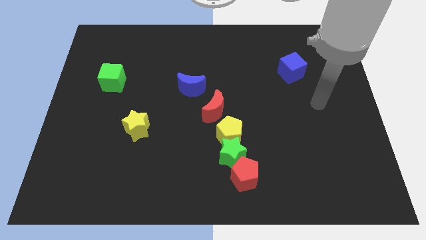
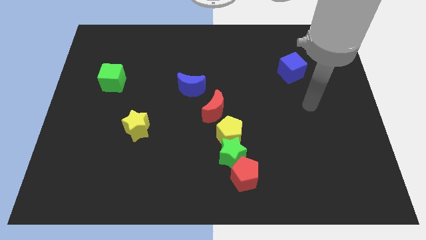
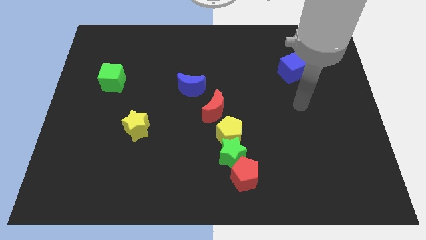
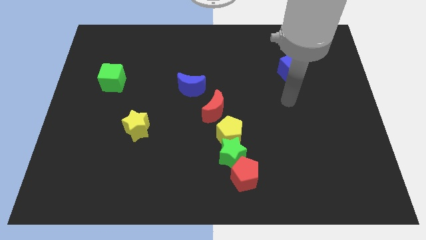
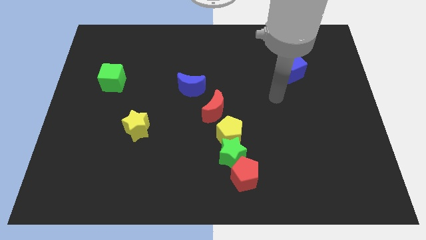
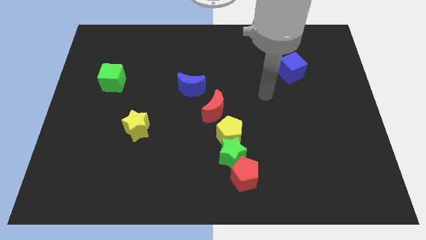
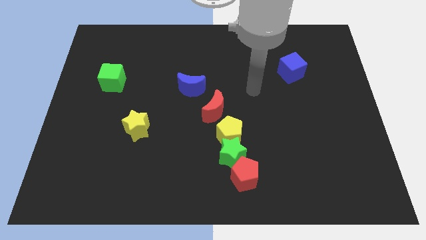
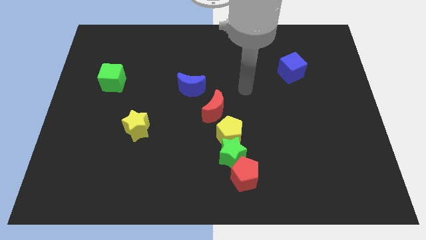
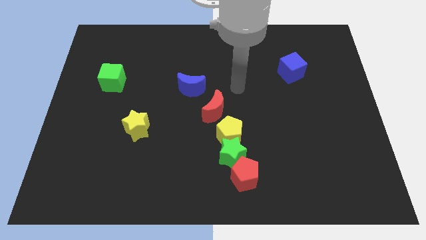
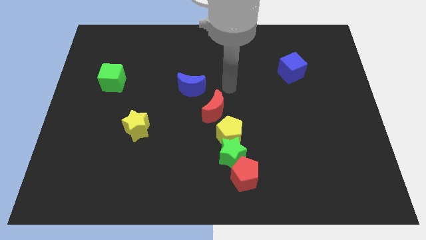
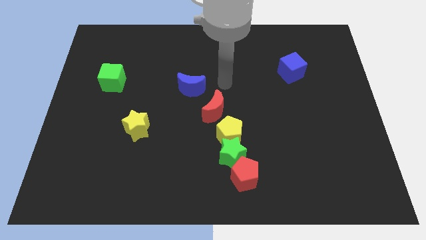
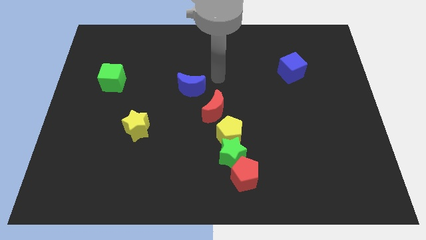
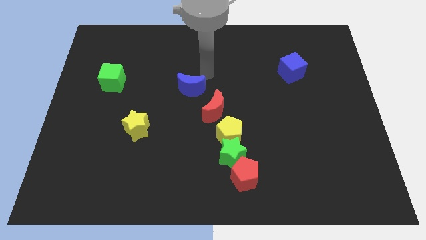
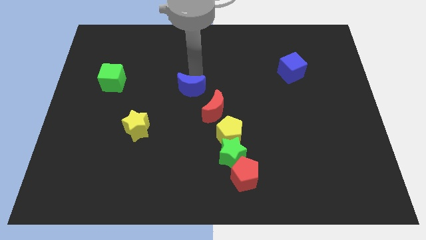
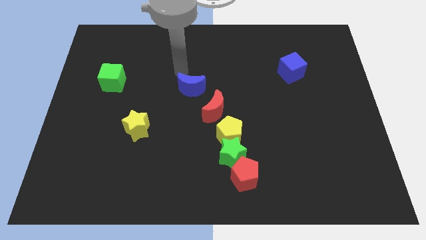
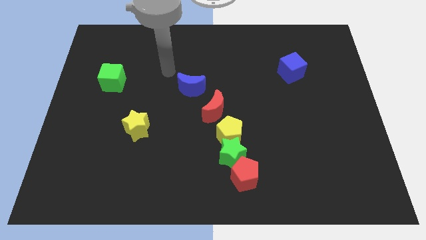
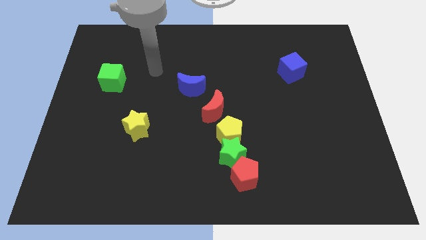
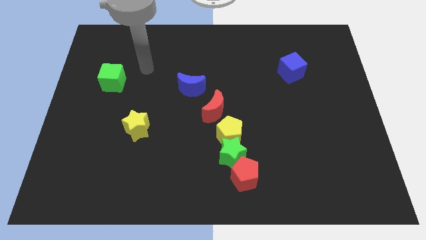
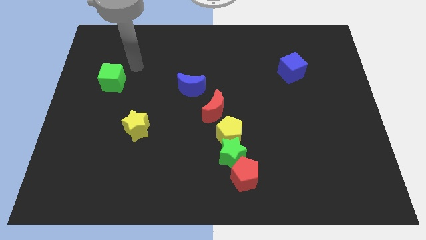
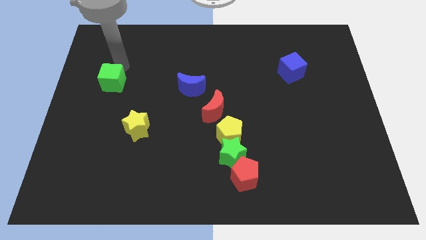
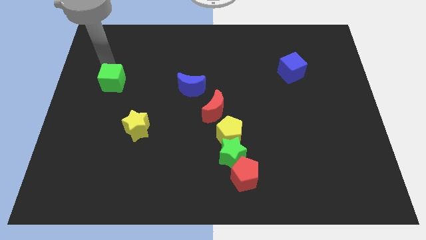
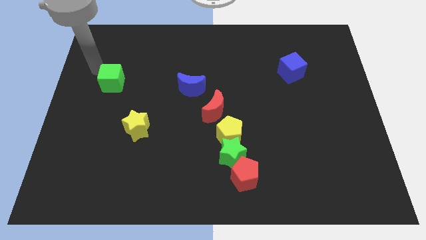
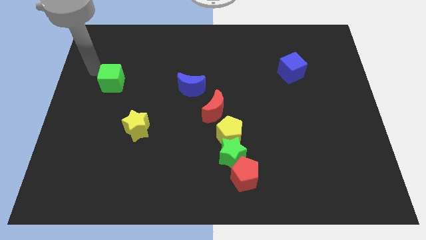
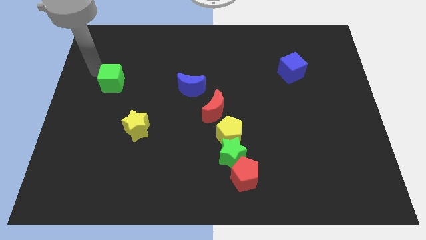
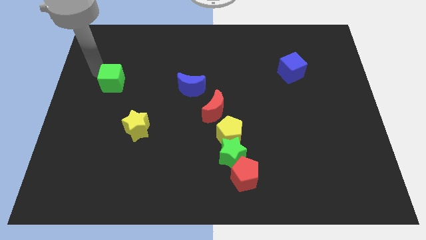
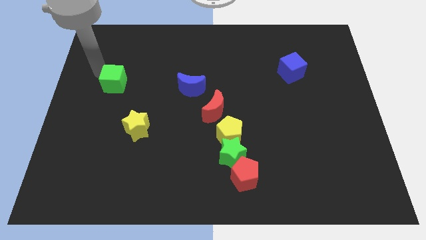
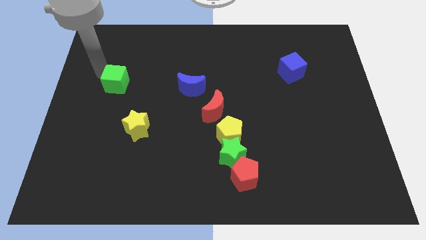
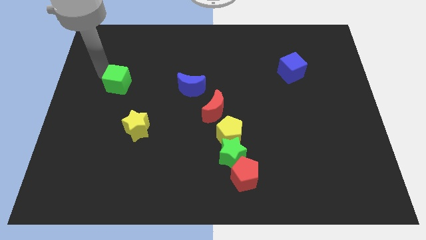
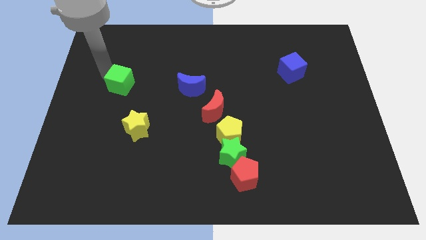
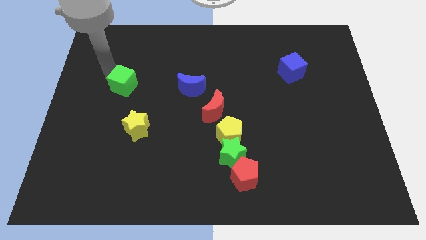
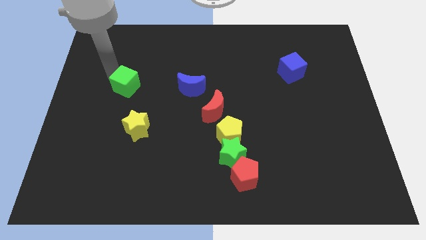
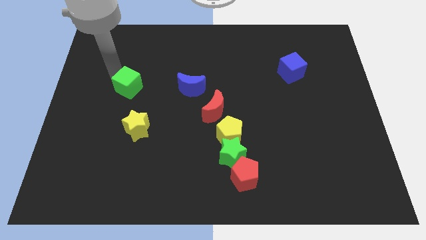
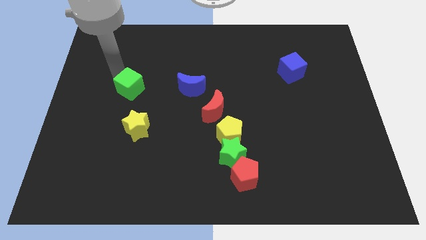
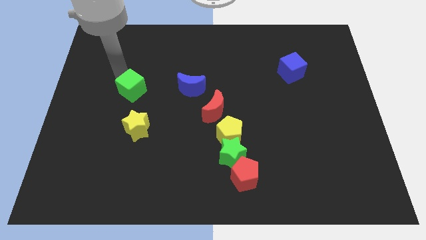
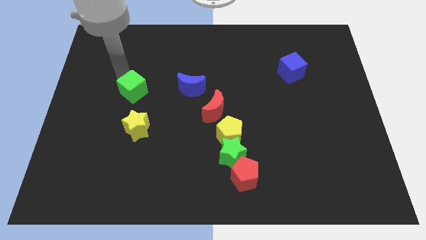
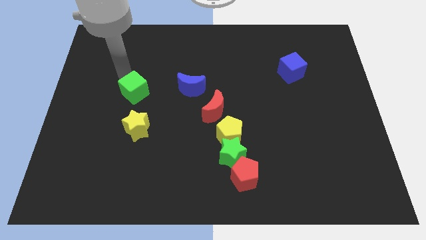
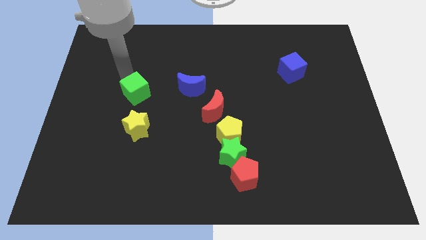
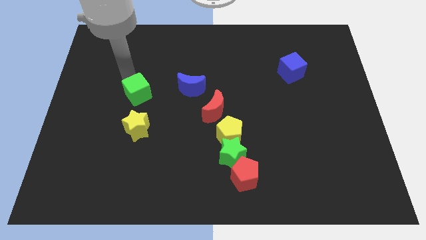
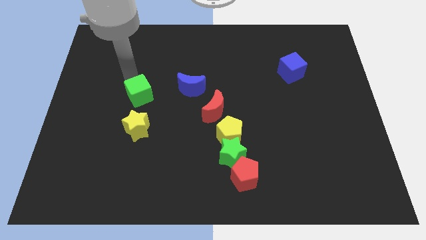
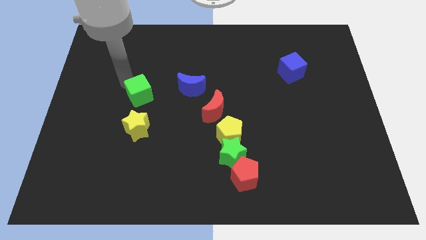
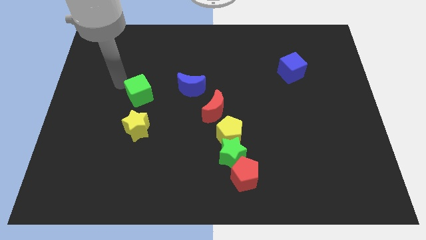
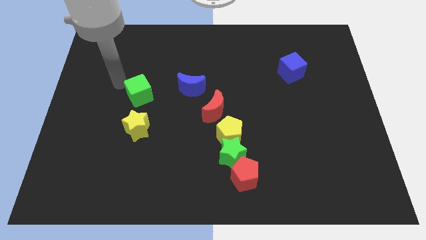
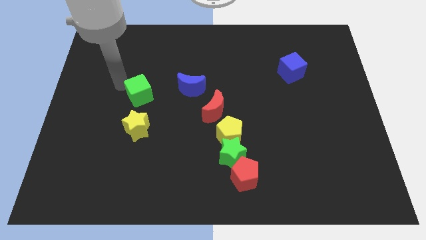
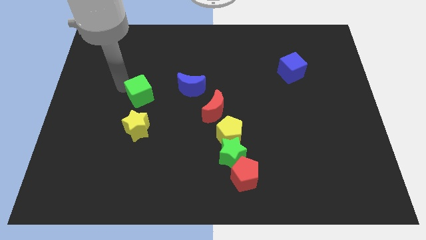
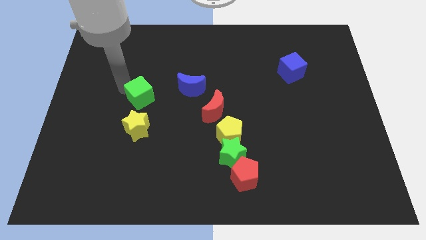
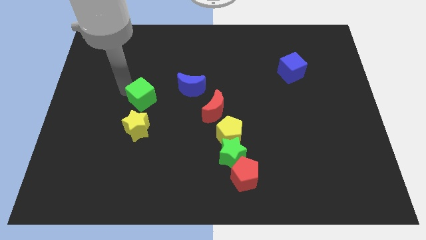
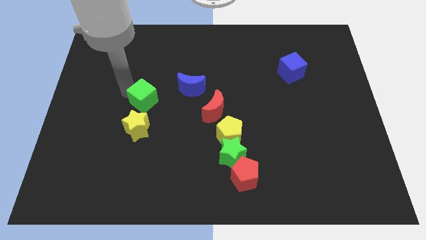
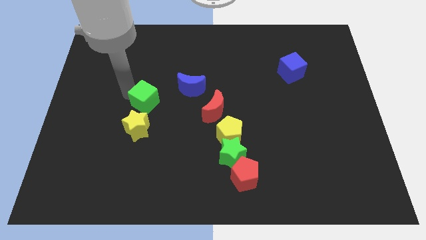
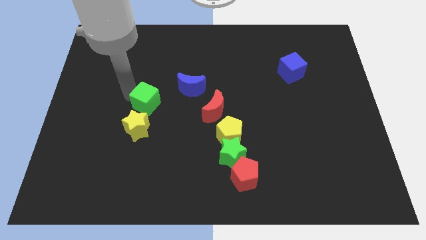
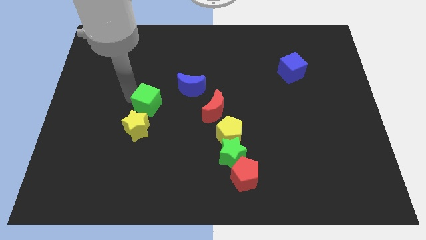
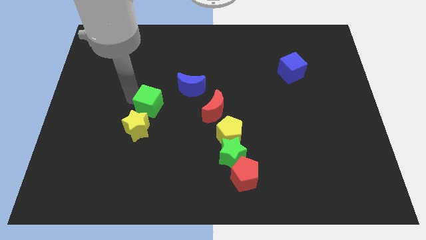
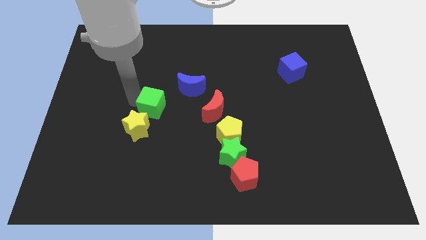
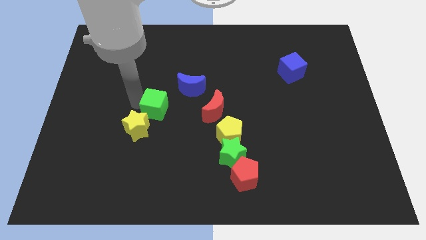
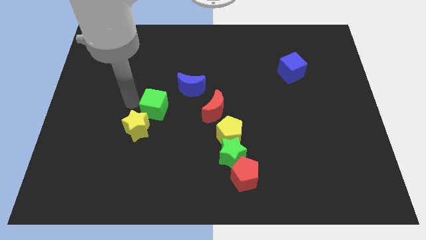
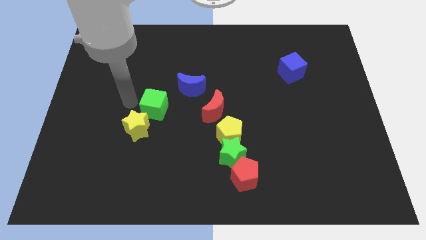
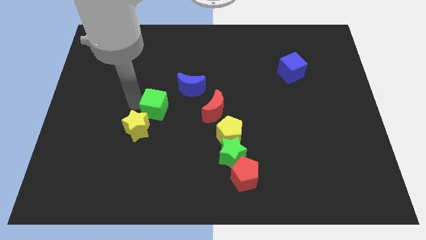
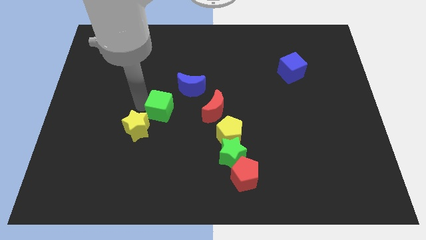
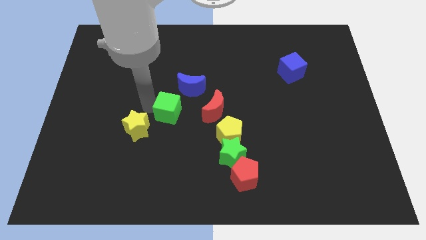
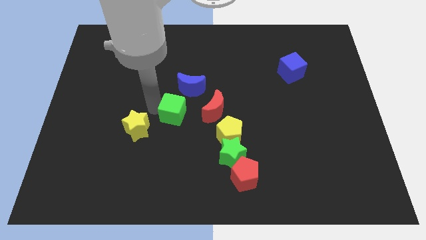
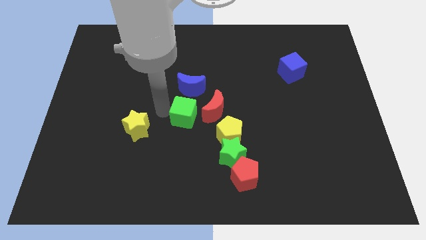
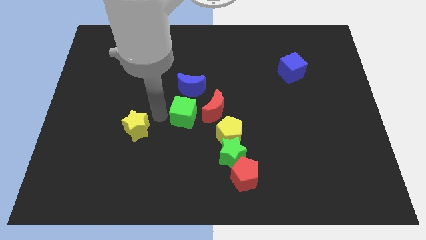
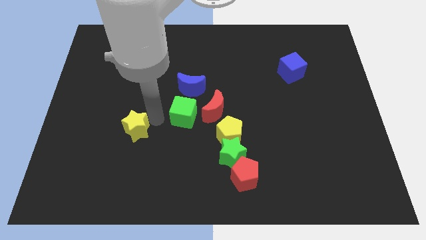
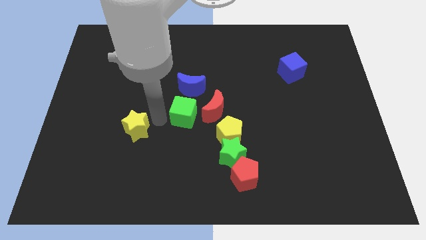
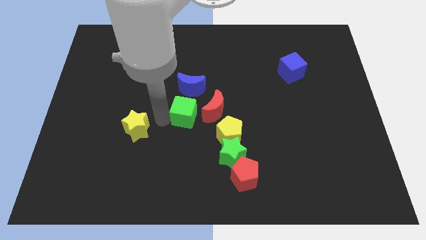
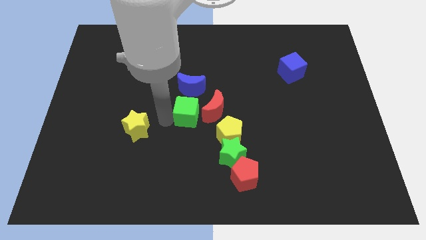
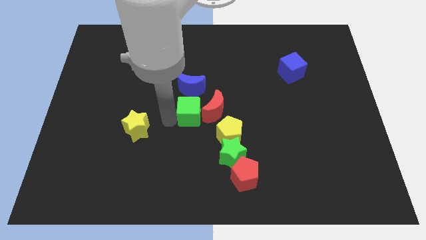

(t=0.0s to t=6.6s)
move the green cube close to the red moon

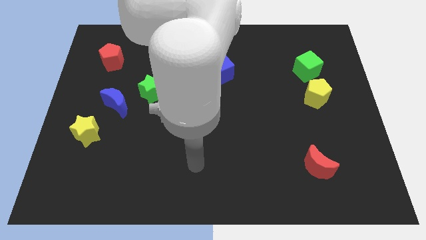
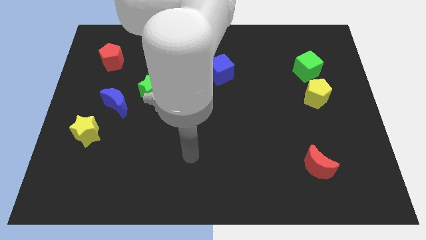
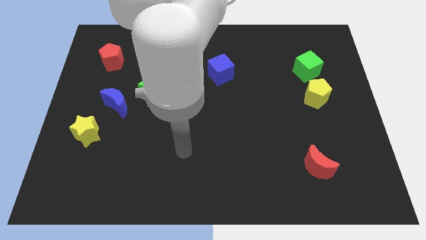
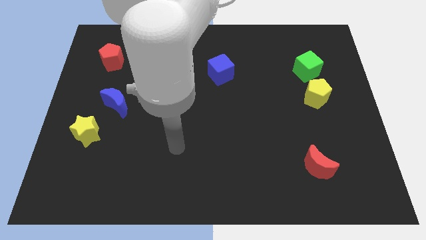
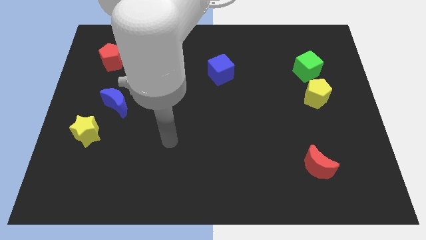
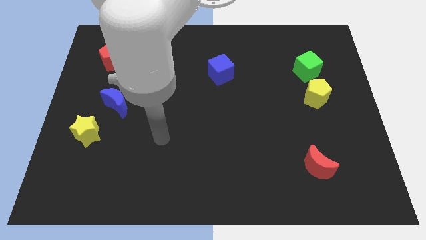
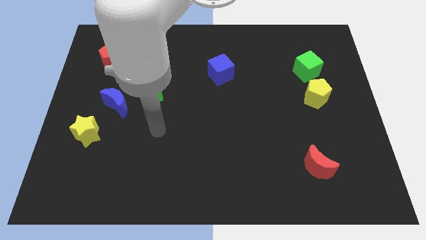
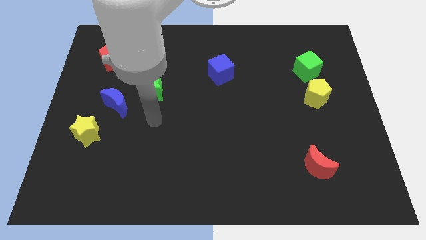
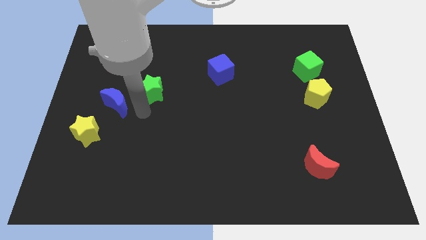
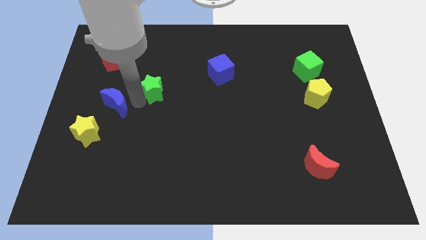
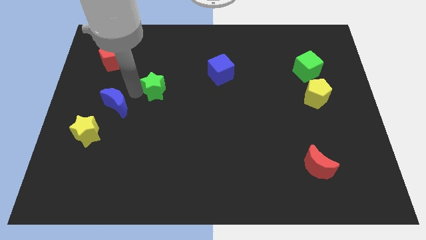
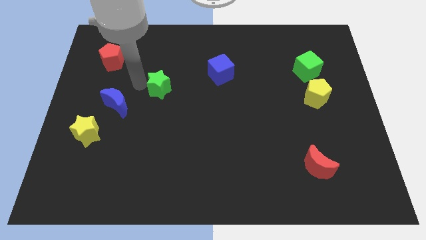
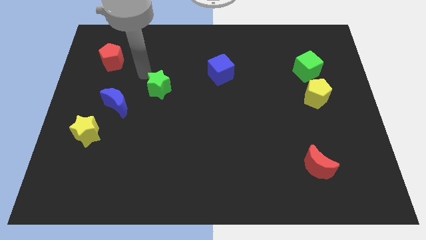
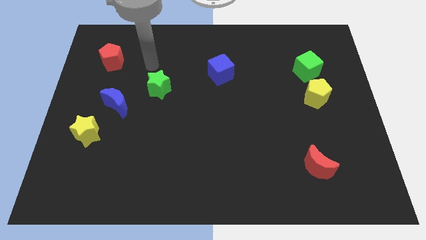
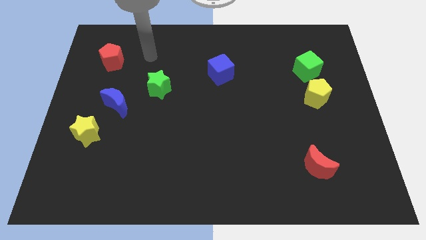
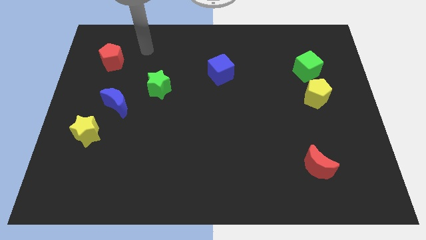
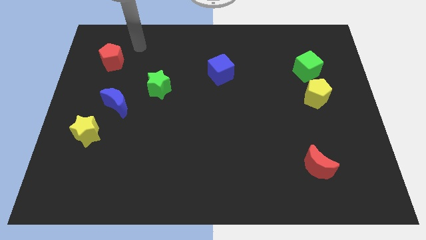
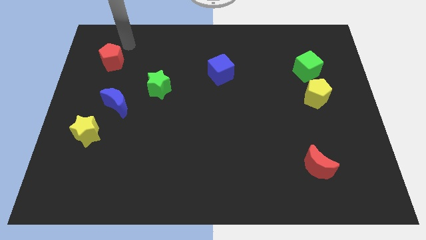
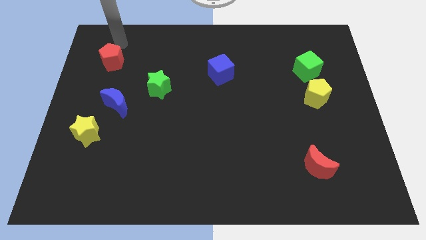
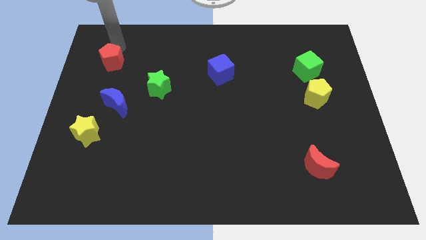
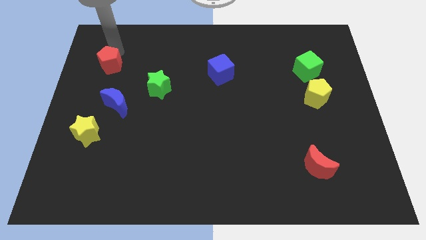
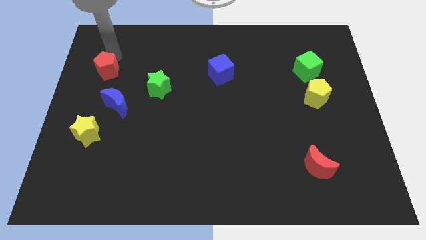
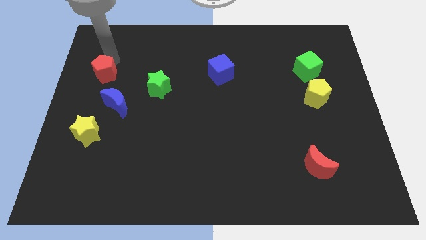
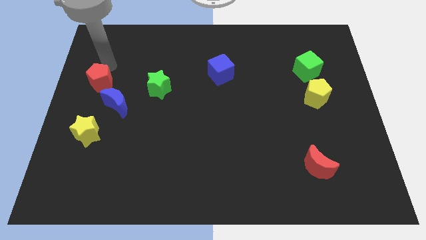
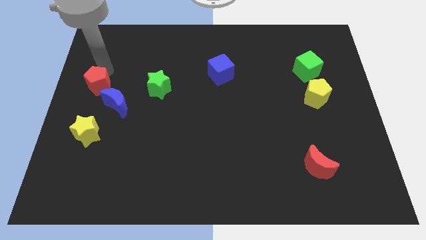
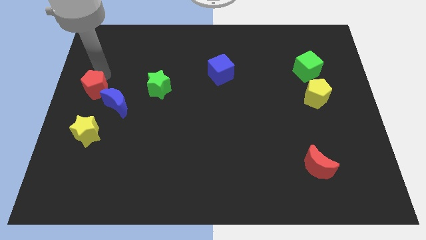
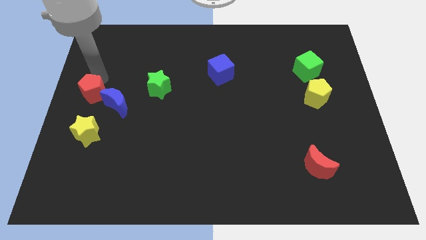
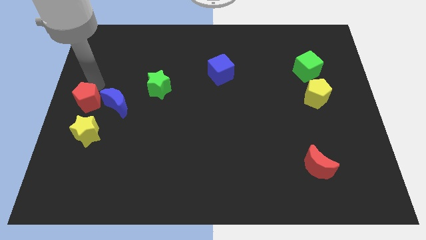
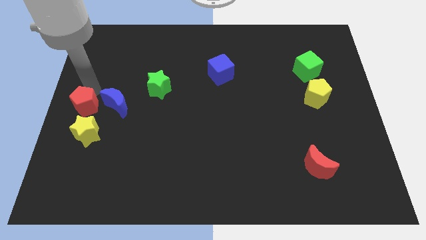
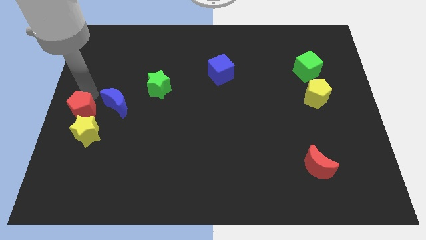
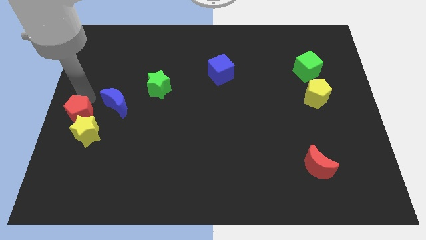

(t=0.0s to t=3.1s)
put the red pentagon towards the yellow star
